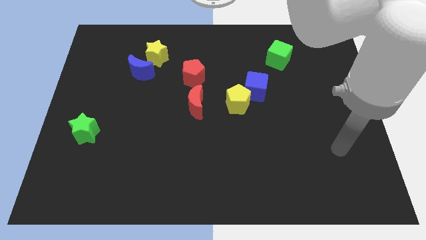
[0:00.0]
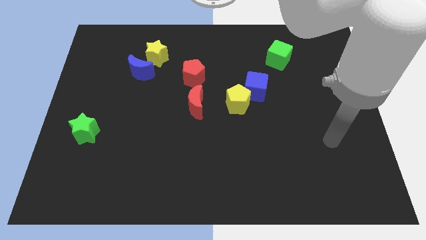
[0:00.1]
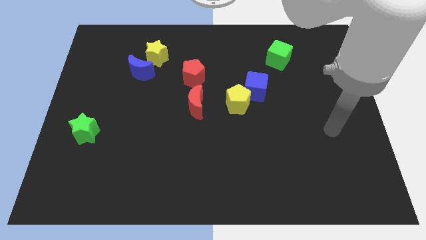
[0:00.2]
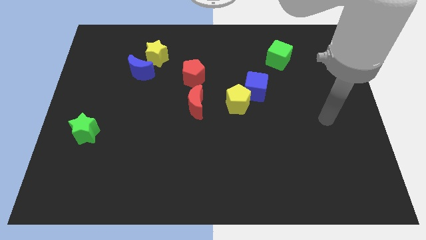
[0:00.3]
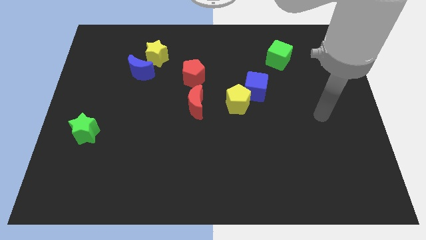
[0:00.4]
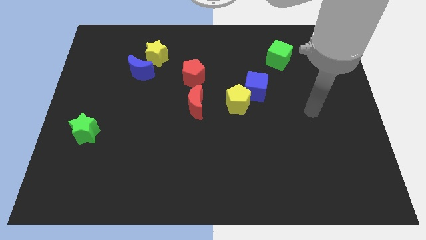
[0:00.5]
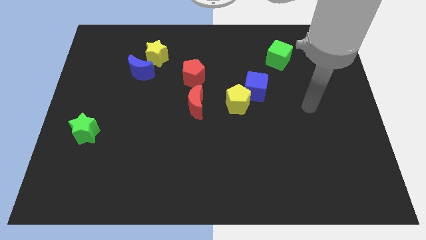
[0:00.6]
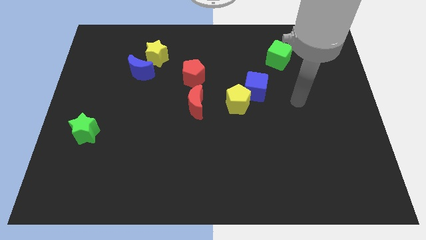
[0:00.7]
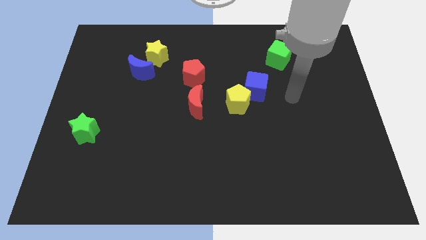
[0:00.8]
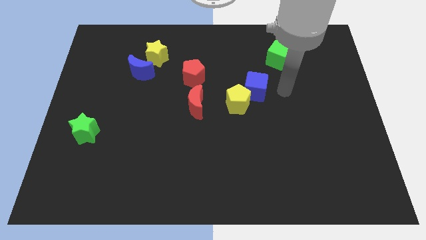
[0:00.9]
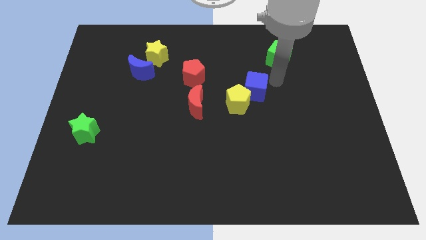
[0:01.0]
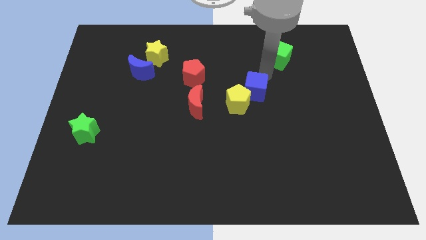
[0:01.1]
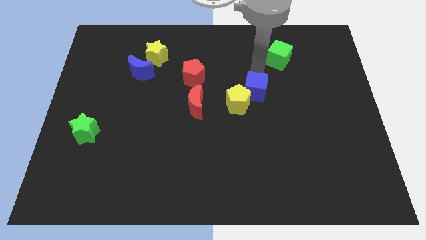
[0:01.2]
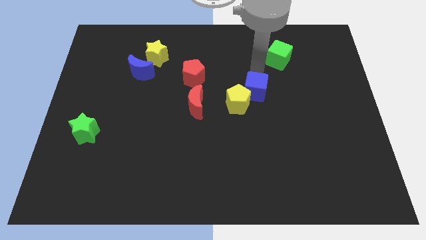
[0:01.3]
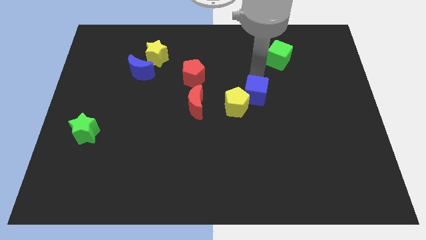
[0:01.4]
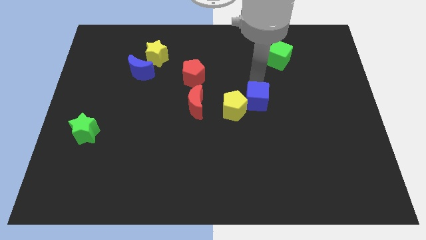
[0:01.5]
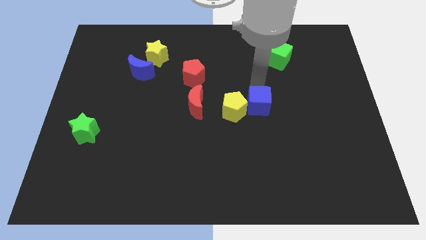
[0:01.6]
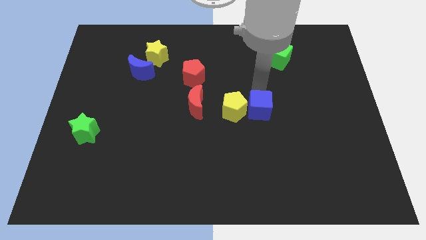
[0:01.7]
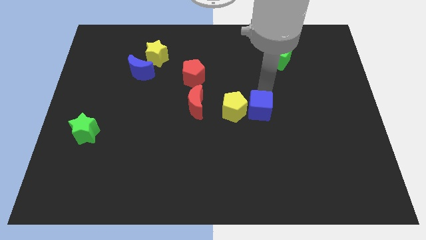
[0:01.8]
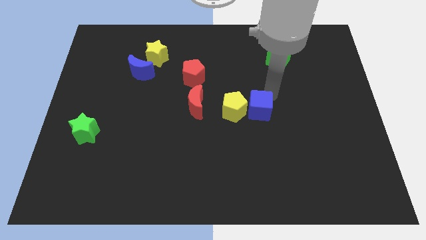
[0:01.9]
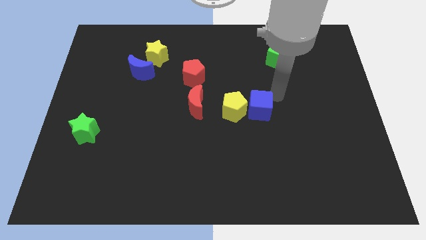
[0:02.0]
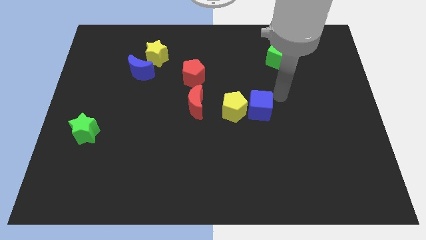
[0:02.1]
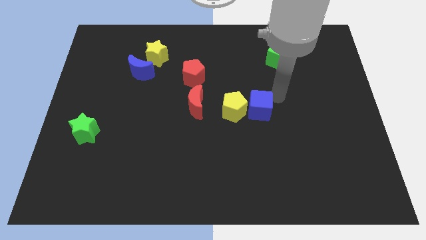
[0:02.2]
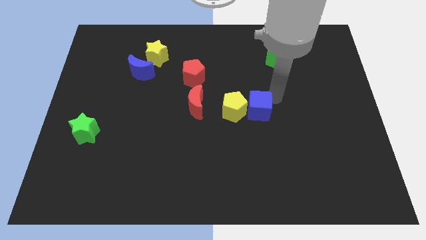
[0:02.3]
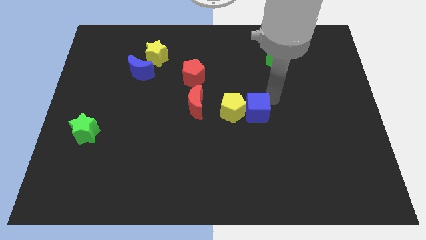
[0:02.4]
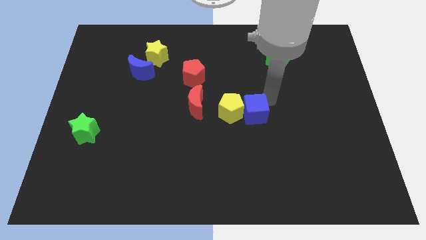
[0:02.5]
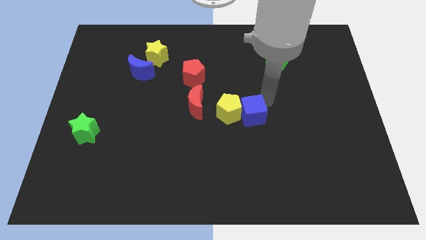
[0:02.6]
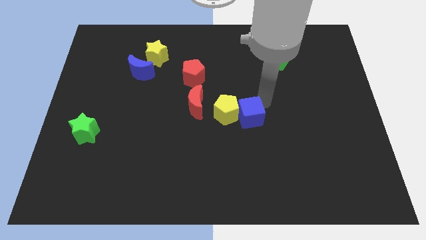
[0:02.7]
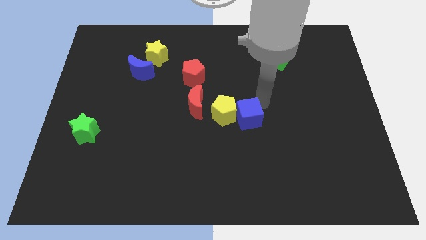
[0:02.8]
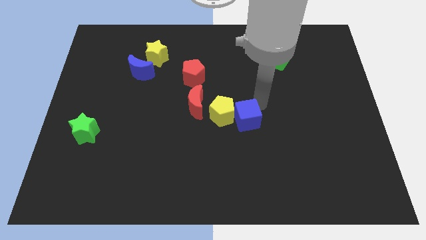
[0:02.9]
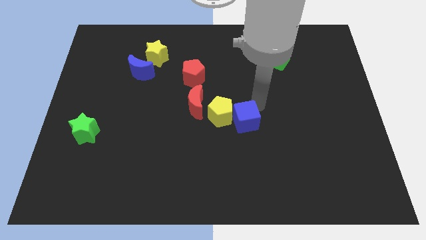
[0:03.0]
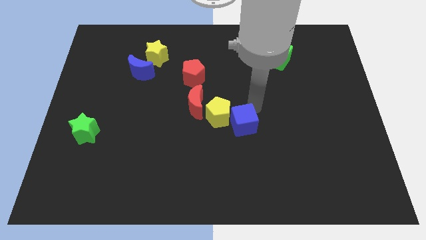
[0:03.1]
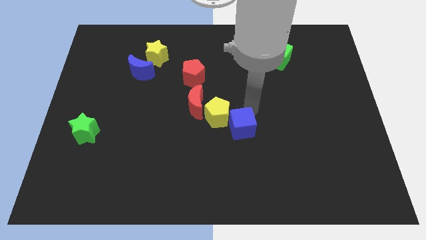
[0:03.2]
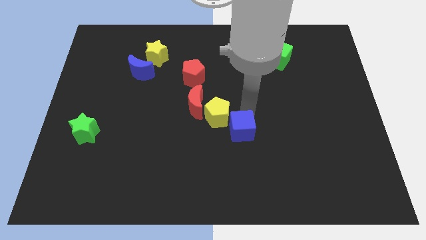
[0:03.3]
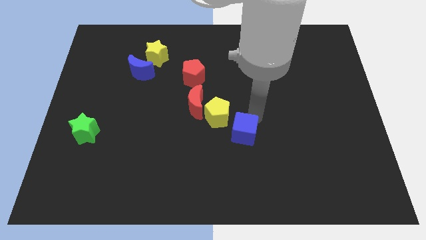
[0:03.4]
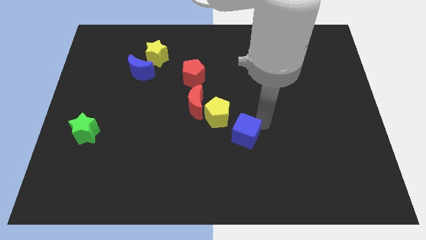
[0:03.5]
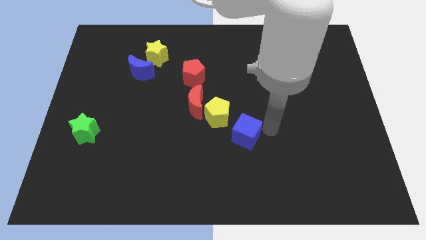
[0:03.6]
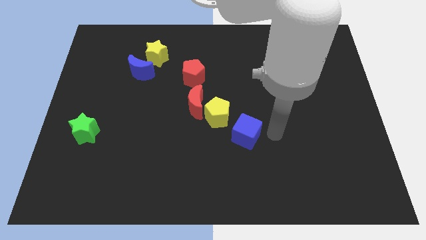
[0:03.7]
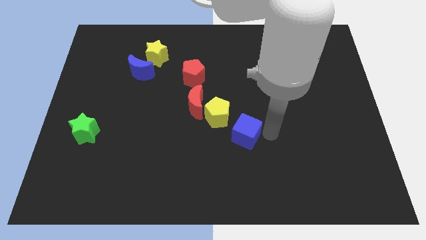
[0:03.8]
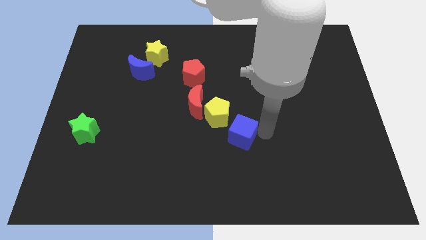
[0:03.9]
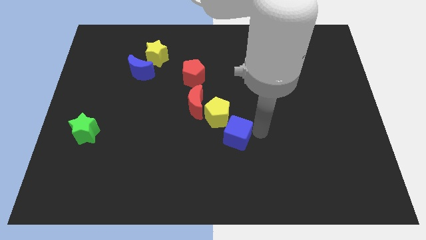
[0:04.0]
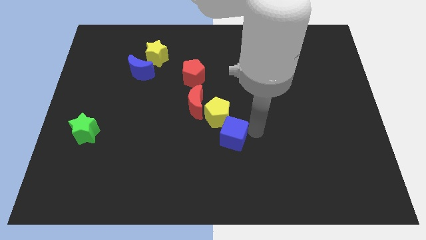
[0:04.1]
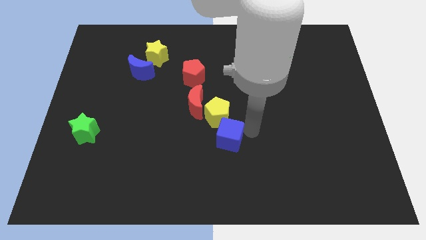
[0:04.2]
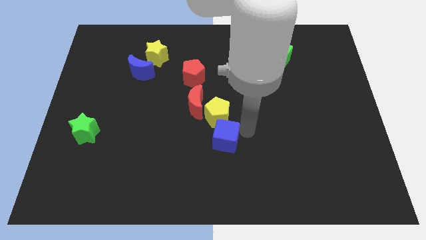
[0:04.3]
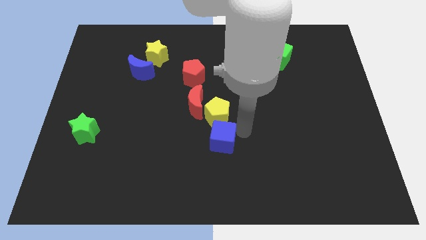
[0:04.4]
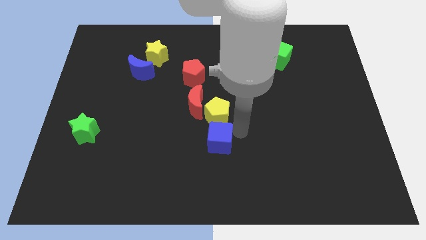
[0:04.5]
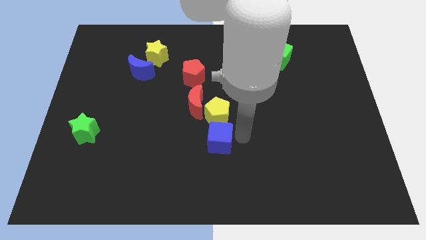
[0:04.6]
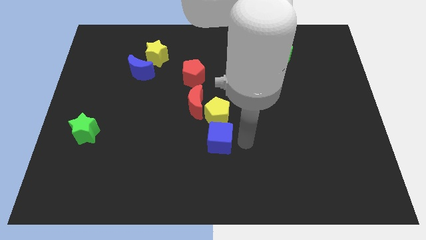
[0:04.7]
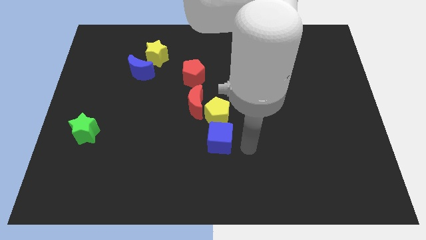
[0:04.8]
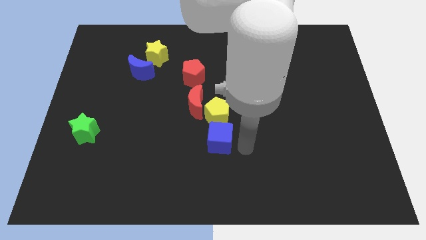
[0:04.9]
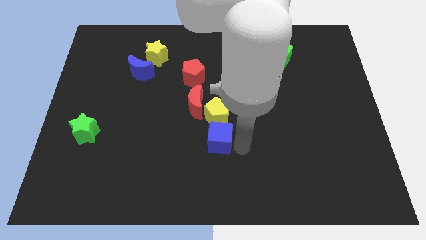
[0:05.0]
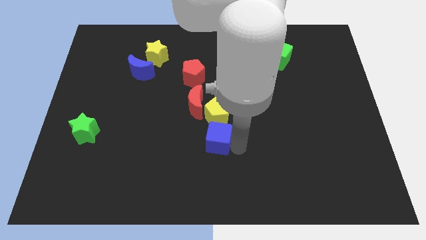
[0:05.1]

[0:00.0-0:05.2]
move the blue cube diagonally down and to the left of the yellow pentagon

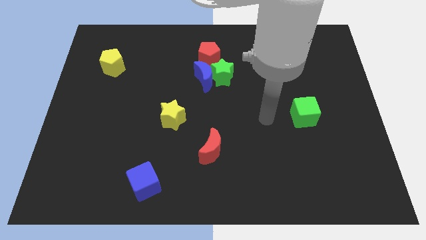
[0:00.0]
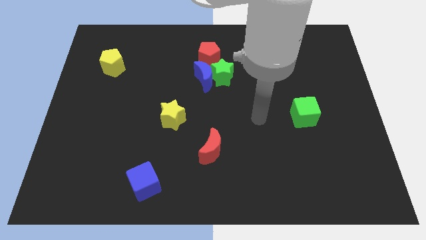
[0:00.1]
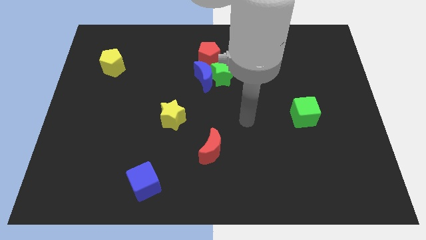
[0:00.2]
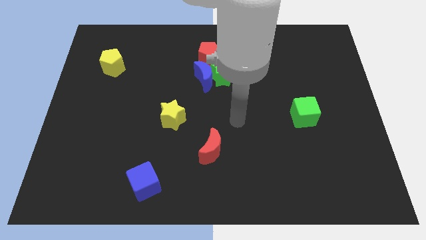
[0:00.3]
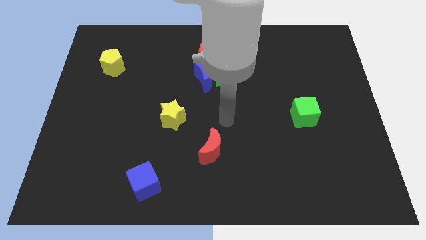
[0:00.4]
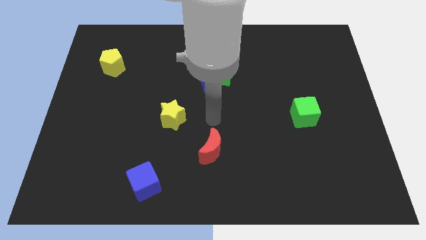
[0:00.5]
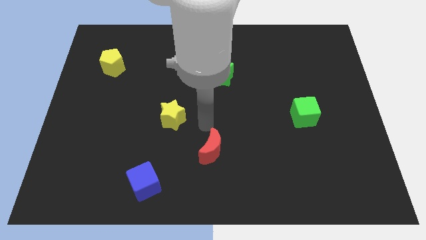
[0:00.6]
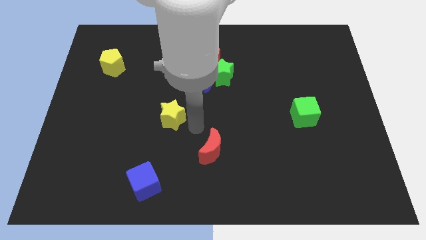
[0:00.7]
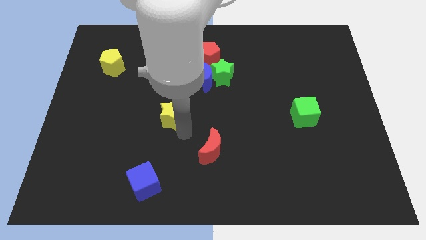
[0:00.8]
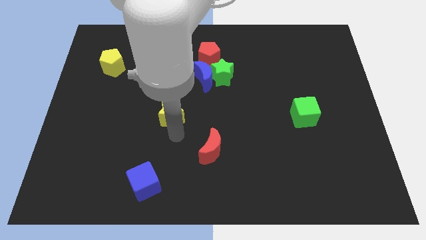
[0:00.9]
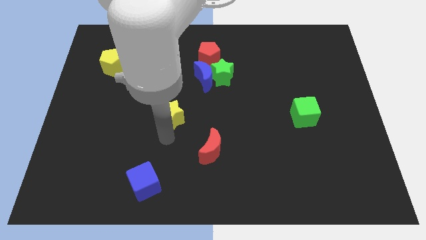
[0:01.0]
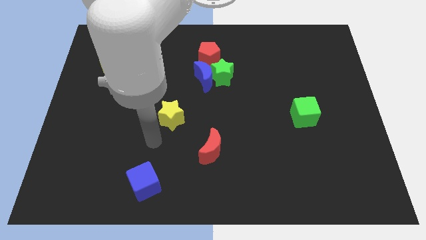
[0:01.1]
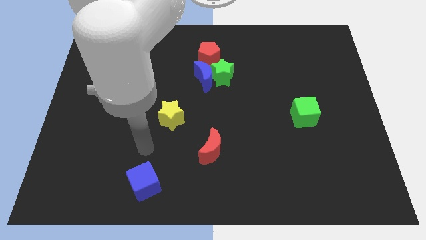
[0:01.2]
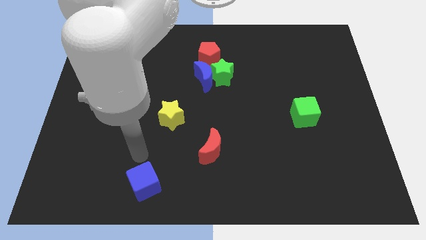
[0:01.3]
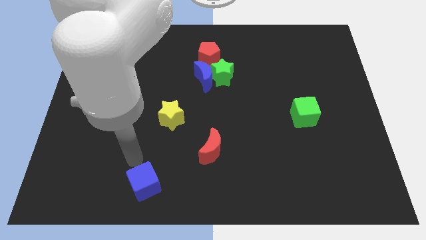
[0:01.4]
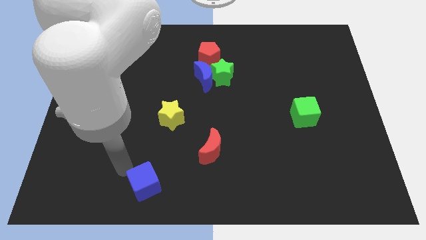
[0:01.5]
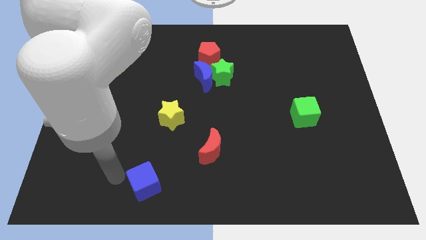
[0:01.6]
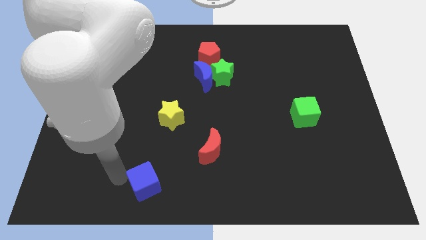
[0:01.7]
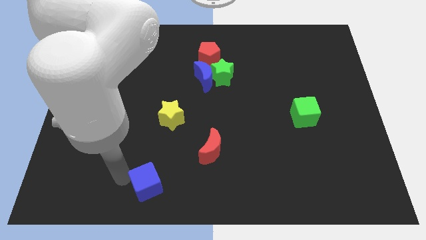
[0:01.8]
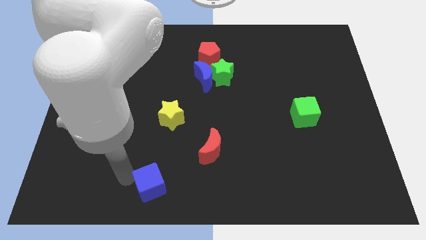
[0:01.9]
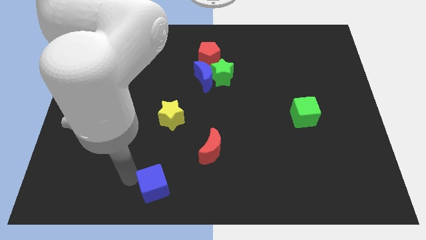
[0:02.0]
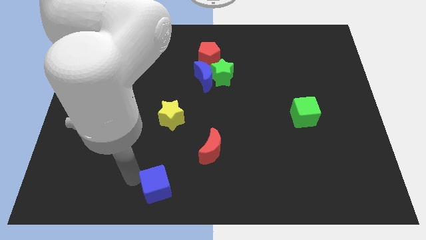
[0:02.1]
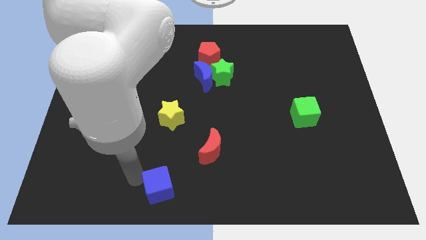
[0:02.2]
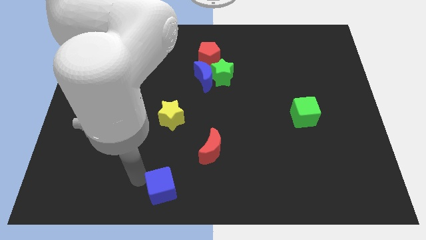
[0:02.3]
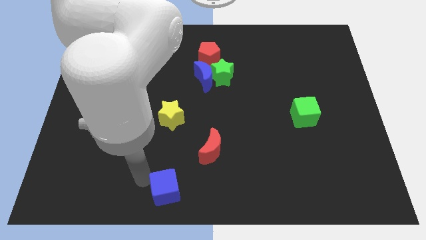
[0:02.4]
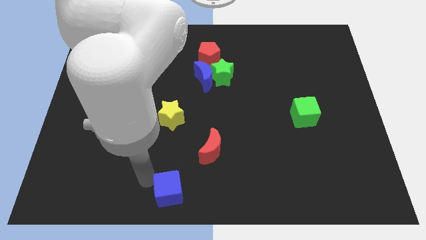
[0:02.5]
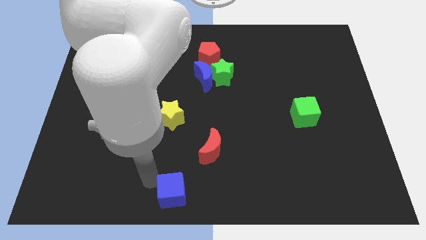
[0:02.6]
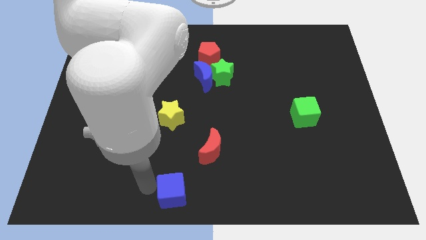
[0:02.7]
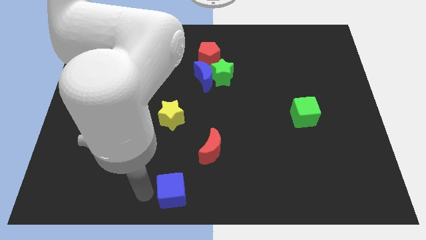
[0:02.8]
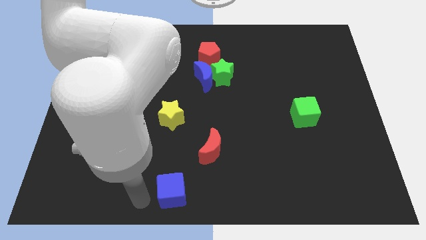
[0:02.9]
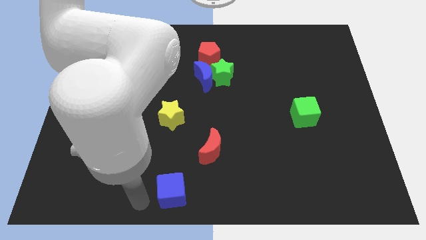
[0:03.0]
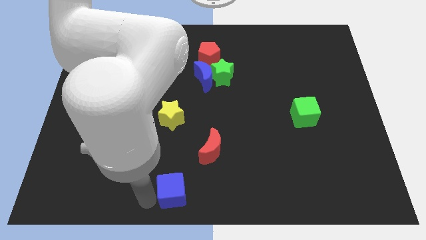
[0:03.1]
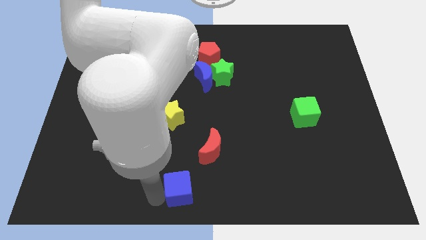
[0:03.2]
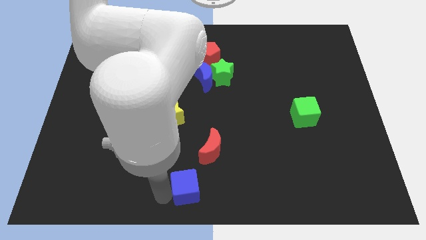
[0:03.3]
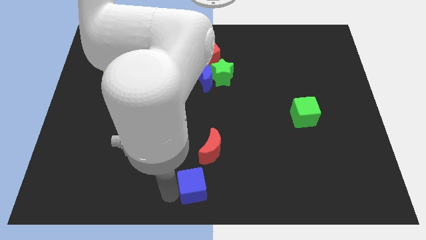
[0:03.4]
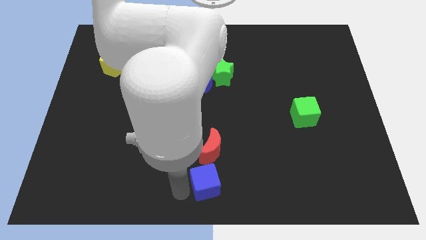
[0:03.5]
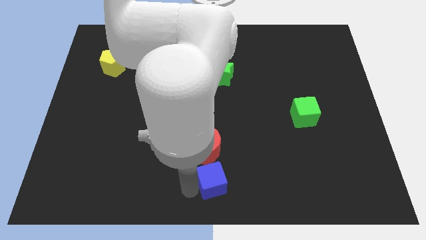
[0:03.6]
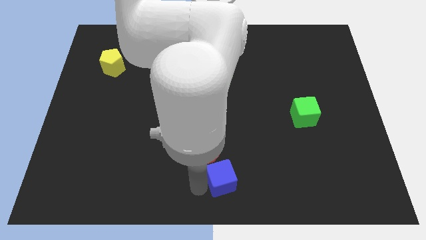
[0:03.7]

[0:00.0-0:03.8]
put the blue cube to the bottom right of the red moon
